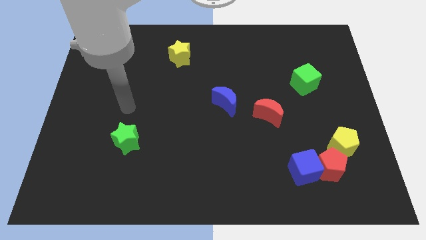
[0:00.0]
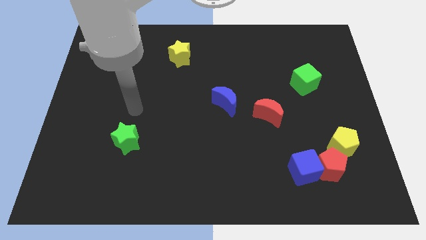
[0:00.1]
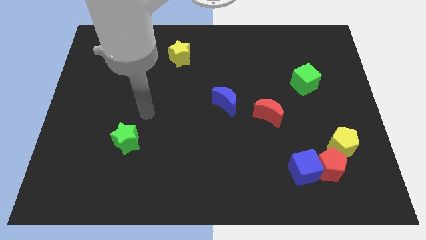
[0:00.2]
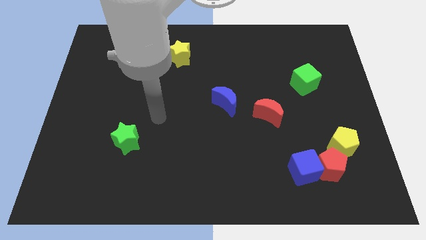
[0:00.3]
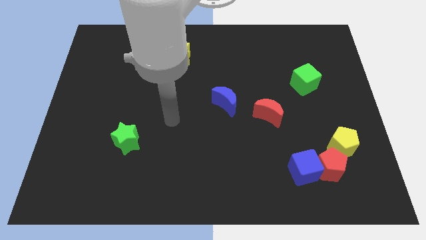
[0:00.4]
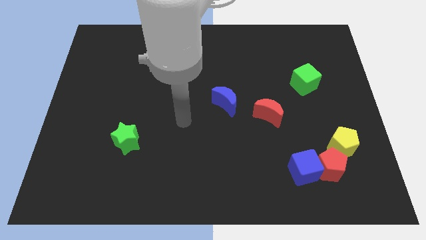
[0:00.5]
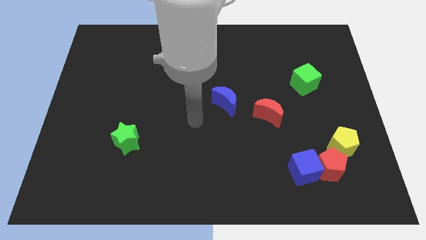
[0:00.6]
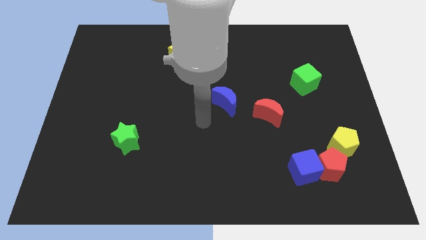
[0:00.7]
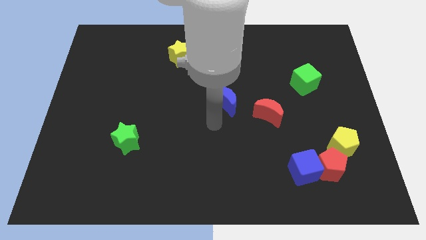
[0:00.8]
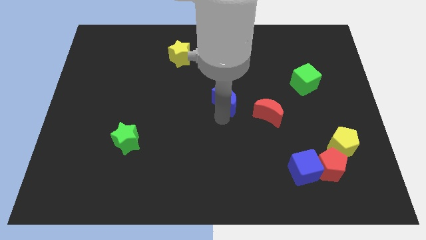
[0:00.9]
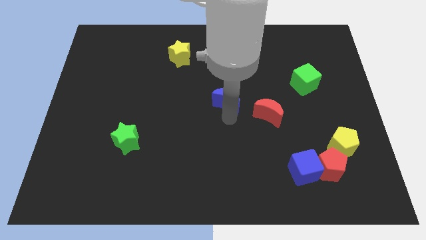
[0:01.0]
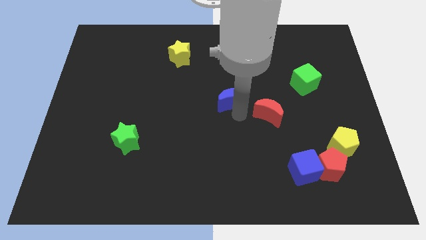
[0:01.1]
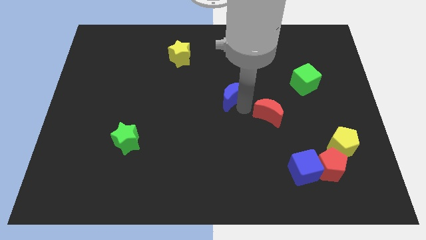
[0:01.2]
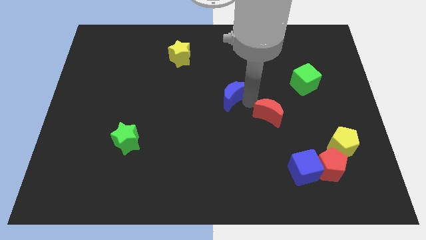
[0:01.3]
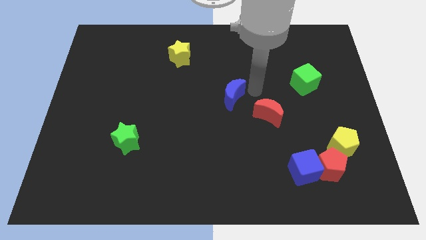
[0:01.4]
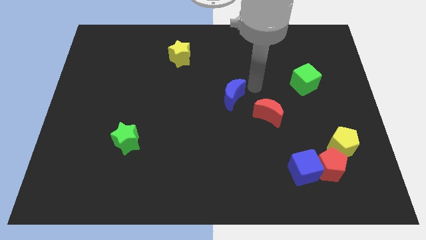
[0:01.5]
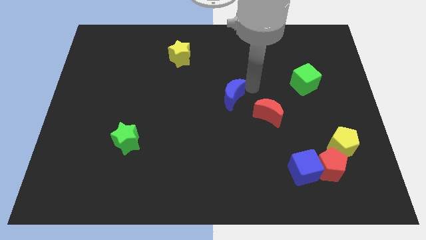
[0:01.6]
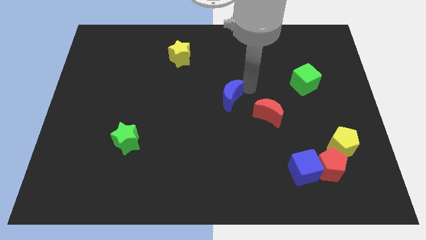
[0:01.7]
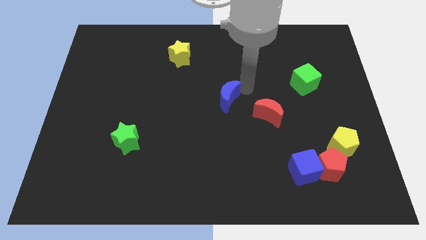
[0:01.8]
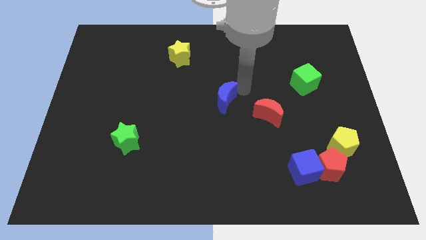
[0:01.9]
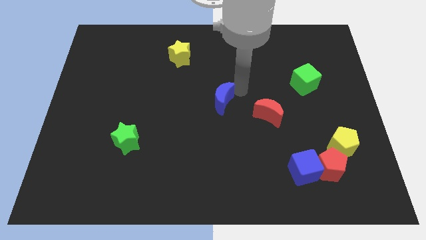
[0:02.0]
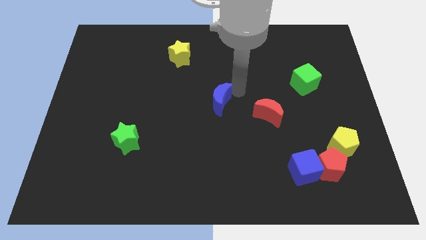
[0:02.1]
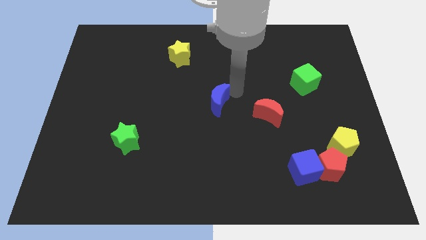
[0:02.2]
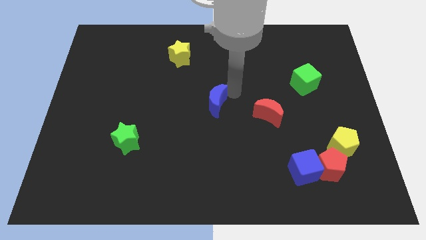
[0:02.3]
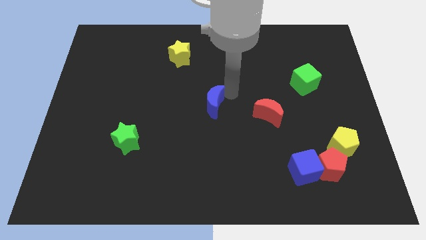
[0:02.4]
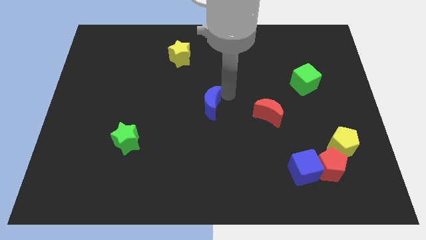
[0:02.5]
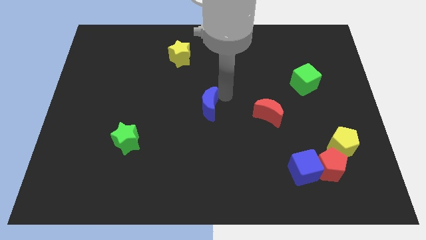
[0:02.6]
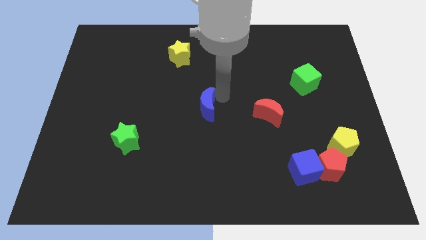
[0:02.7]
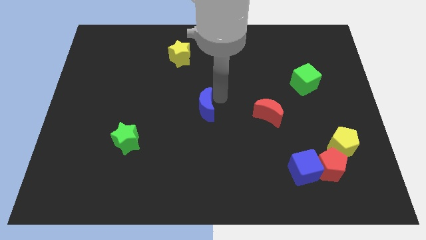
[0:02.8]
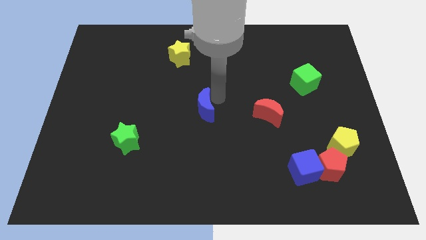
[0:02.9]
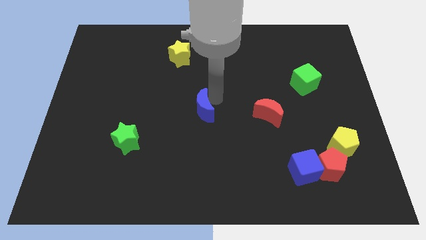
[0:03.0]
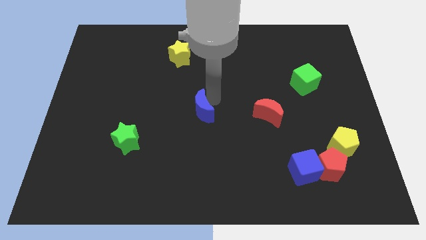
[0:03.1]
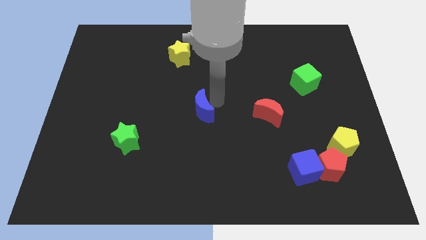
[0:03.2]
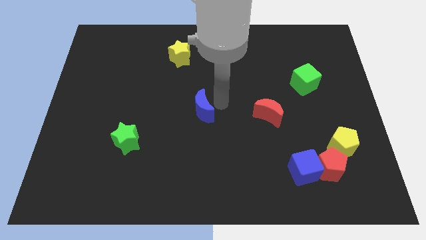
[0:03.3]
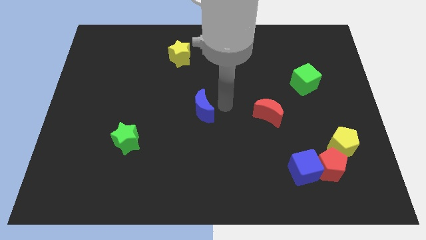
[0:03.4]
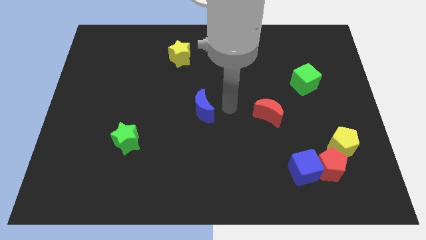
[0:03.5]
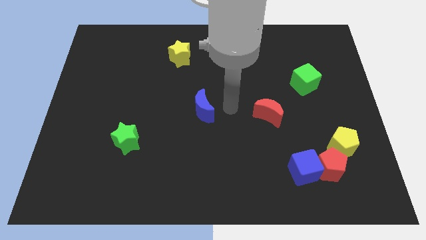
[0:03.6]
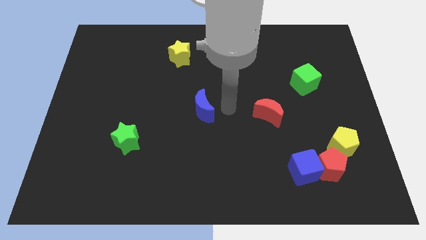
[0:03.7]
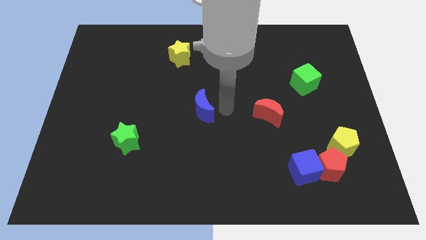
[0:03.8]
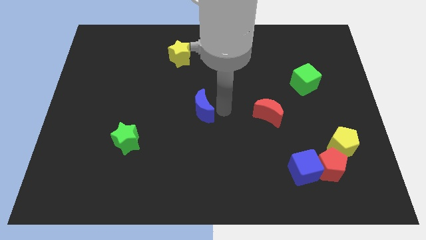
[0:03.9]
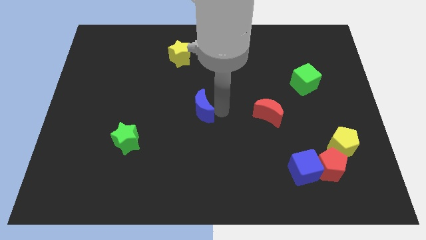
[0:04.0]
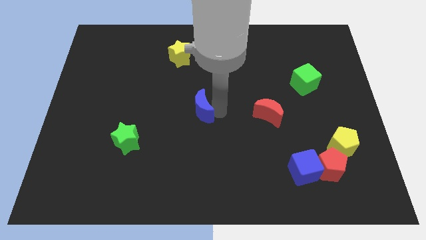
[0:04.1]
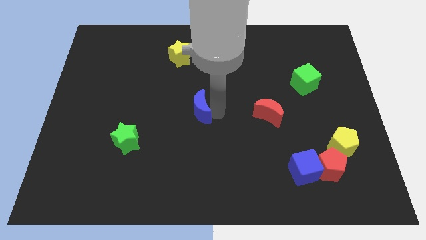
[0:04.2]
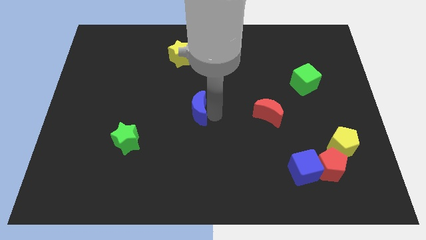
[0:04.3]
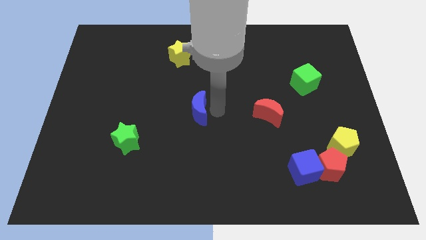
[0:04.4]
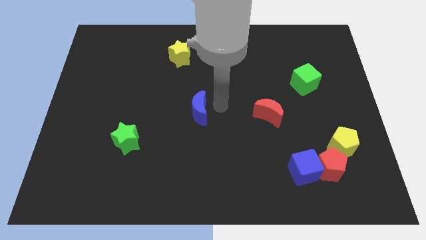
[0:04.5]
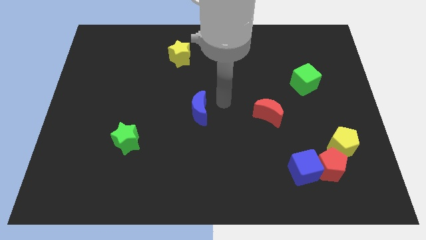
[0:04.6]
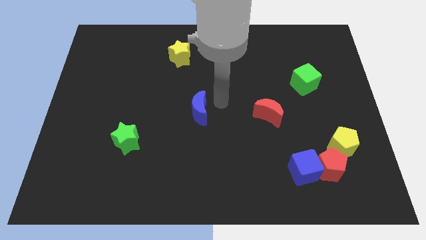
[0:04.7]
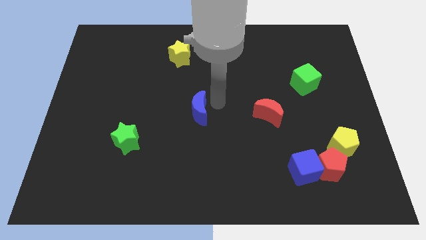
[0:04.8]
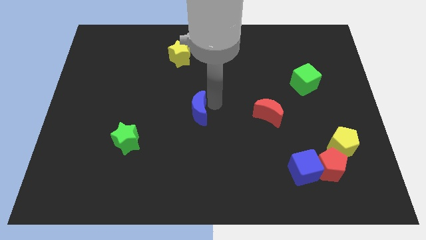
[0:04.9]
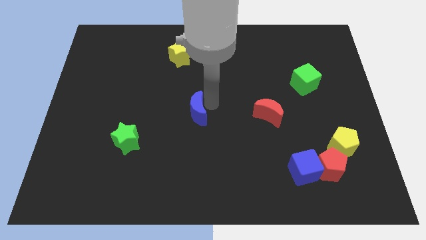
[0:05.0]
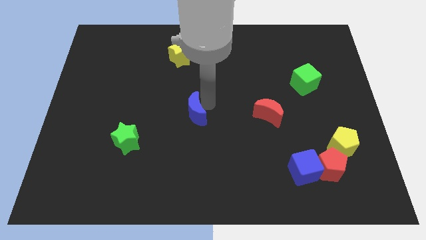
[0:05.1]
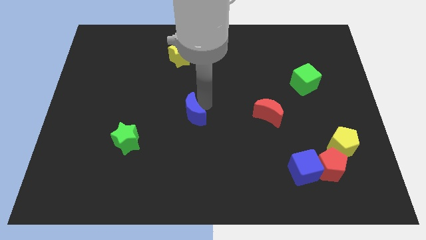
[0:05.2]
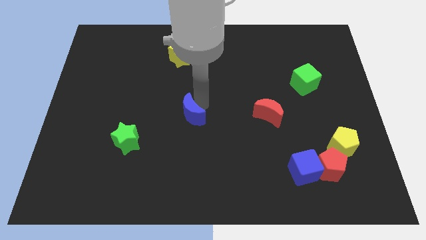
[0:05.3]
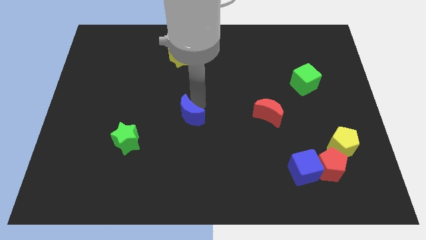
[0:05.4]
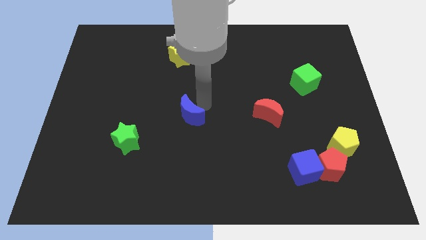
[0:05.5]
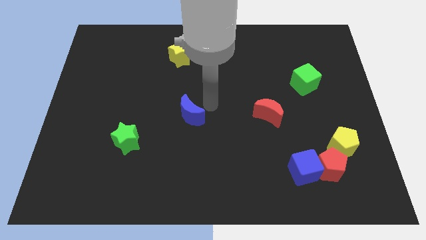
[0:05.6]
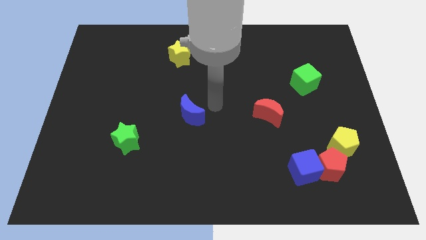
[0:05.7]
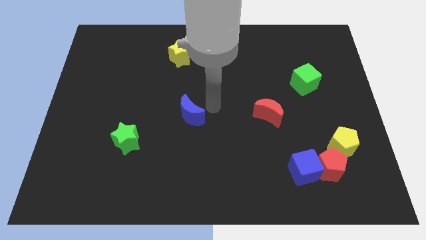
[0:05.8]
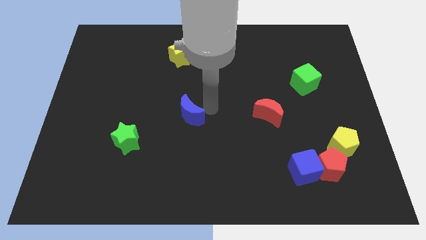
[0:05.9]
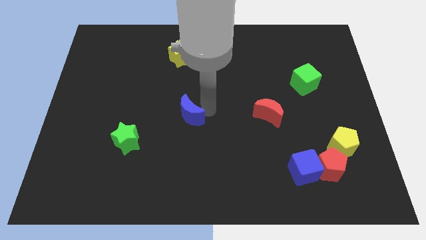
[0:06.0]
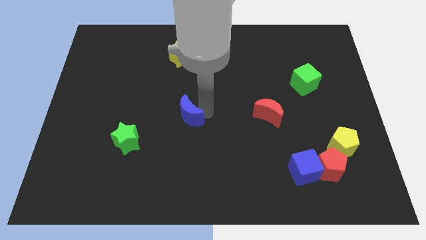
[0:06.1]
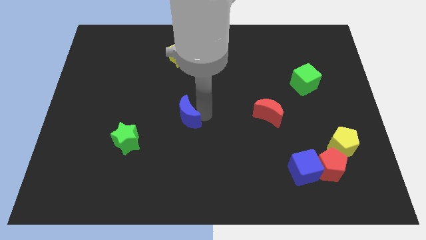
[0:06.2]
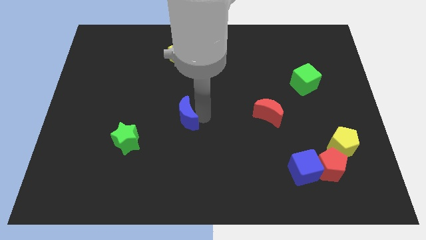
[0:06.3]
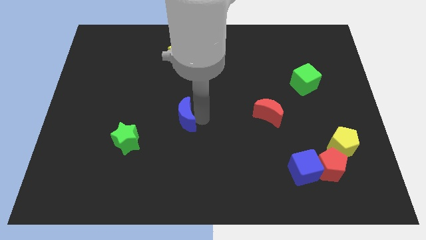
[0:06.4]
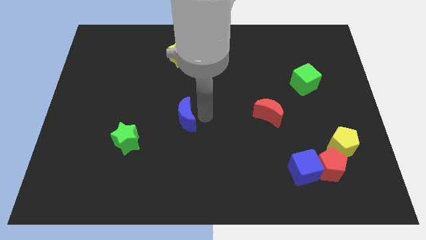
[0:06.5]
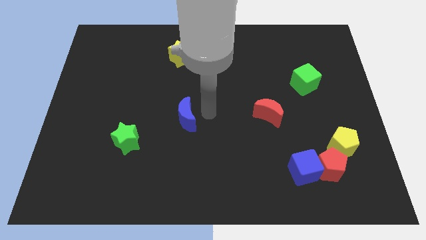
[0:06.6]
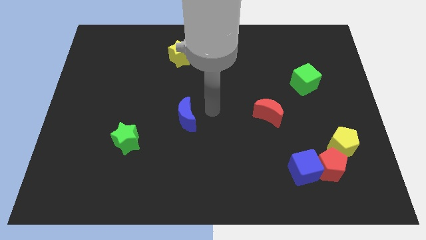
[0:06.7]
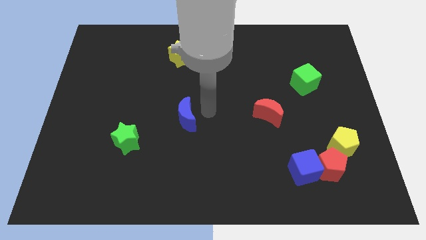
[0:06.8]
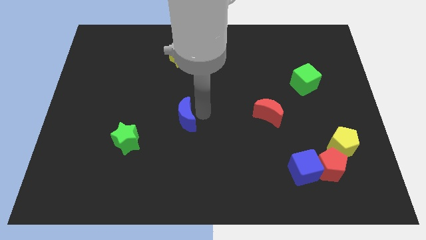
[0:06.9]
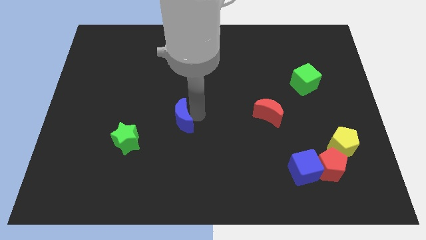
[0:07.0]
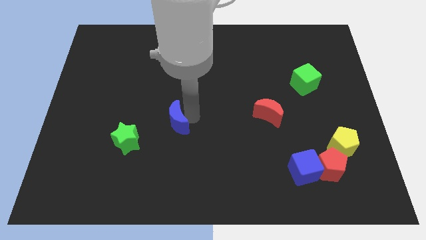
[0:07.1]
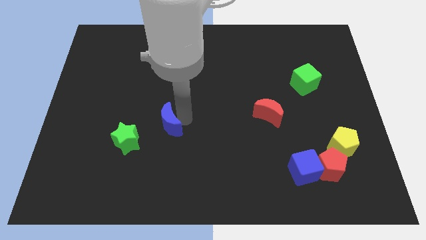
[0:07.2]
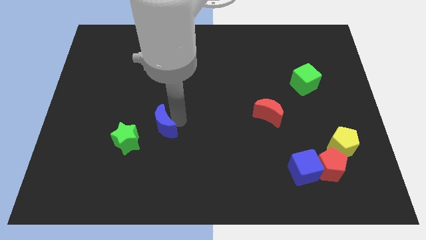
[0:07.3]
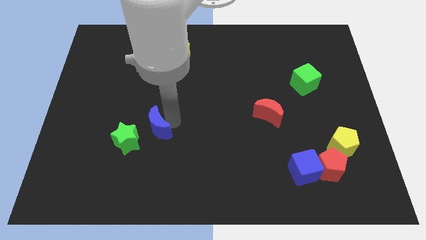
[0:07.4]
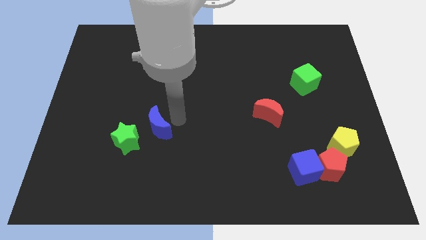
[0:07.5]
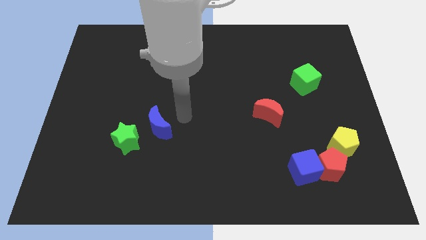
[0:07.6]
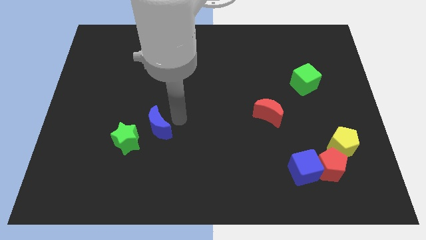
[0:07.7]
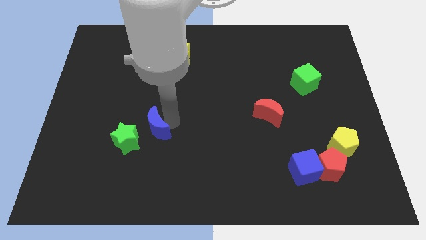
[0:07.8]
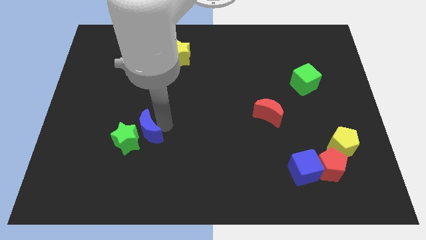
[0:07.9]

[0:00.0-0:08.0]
slide the blue moon close to the green star
